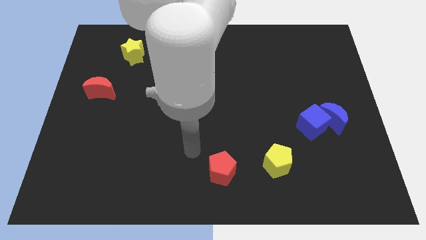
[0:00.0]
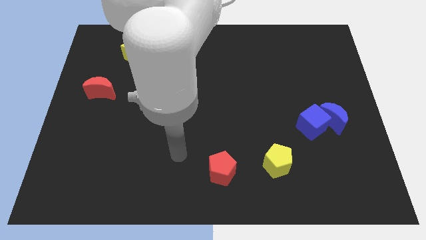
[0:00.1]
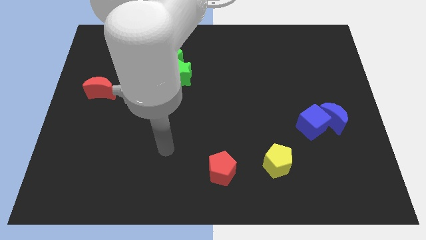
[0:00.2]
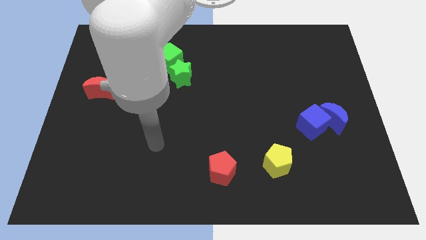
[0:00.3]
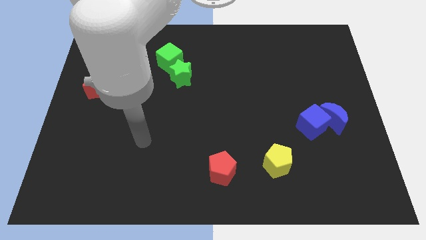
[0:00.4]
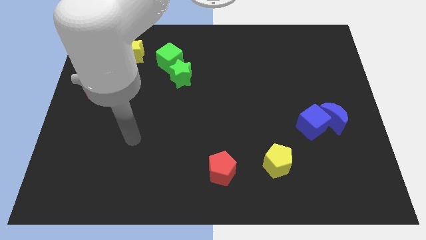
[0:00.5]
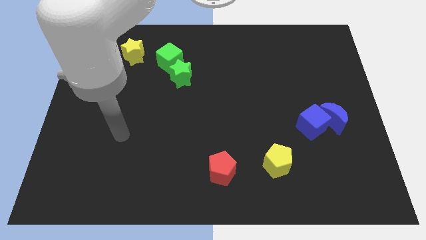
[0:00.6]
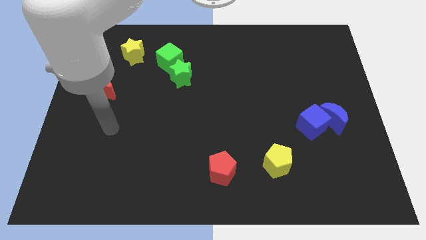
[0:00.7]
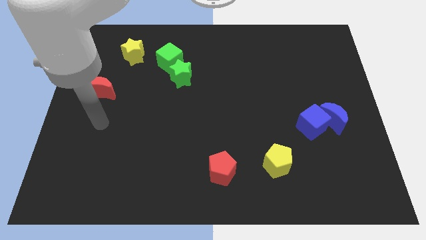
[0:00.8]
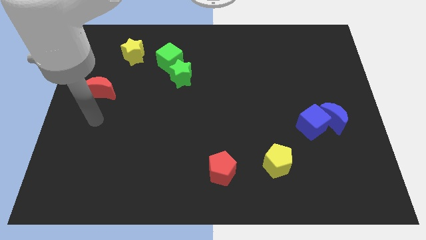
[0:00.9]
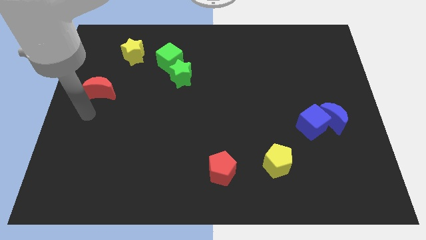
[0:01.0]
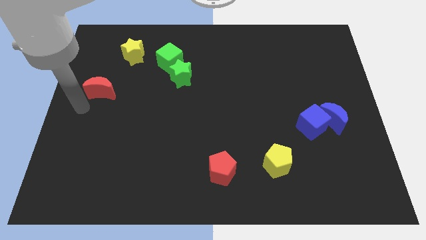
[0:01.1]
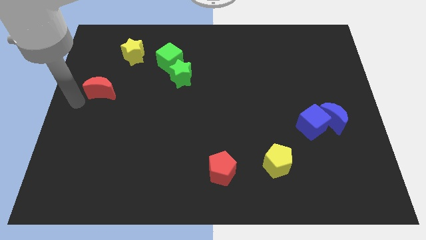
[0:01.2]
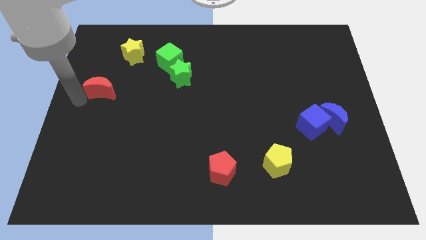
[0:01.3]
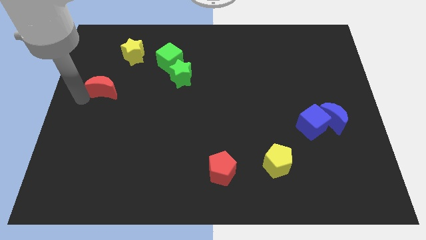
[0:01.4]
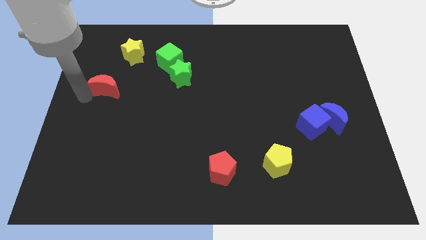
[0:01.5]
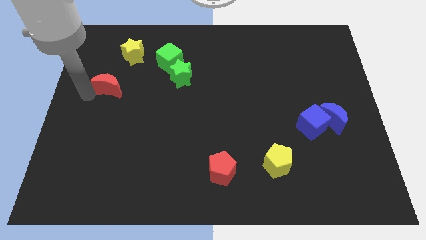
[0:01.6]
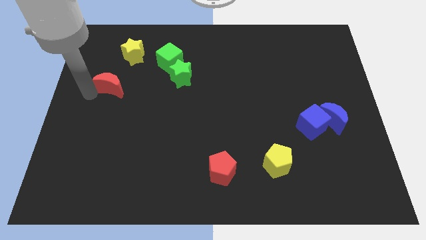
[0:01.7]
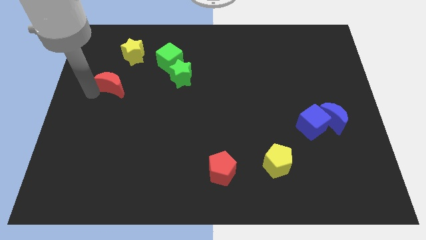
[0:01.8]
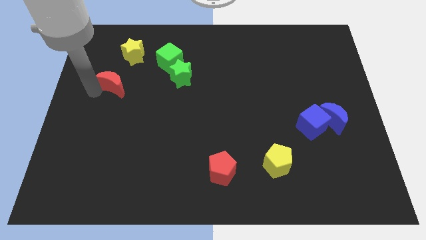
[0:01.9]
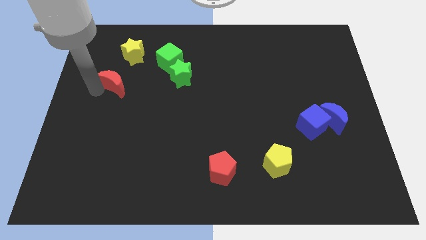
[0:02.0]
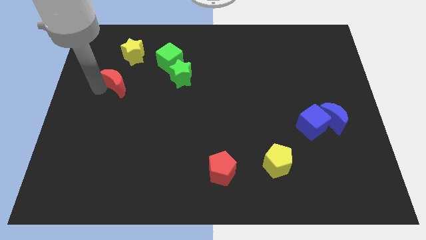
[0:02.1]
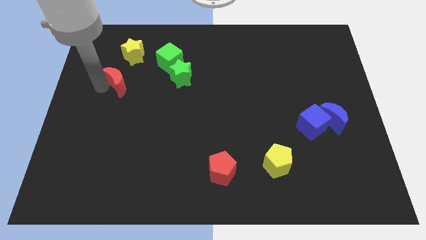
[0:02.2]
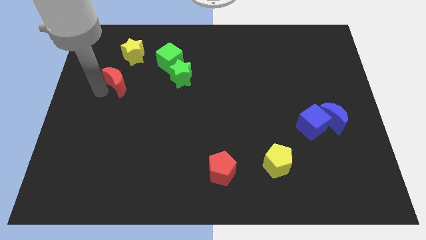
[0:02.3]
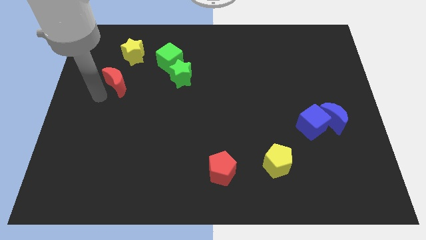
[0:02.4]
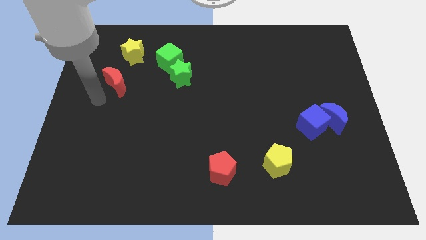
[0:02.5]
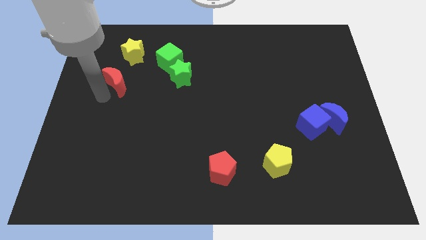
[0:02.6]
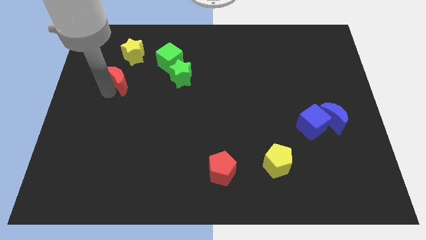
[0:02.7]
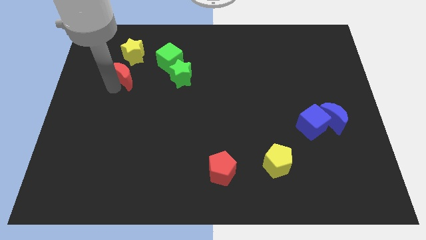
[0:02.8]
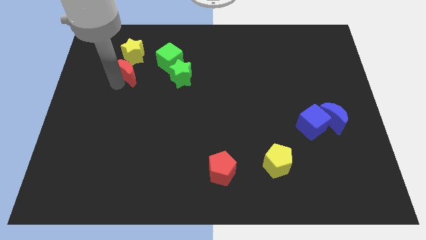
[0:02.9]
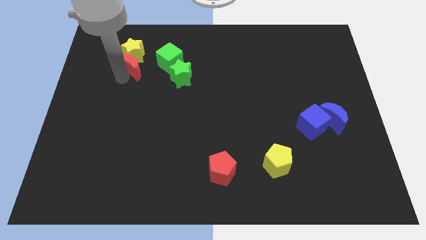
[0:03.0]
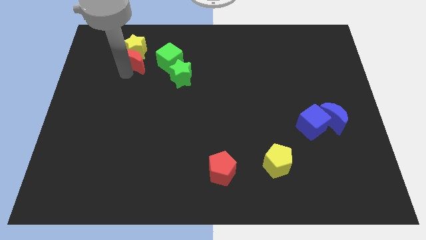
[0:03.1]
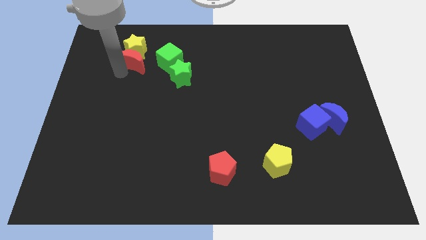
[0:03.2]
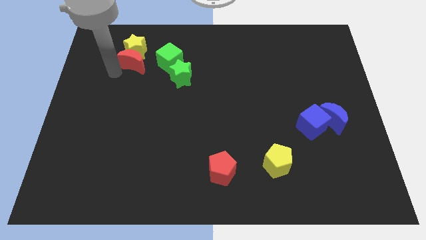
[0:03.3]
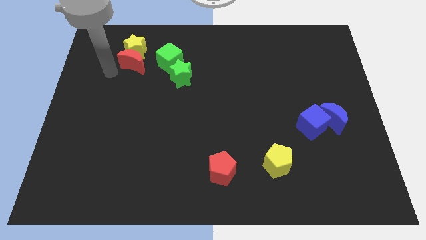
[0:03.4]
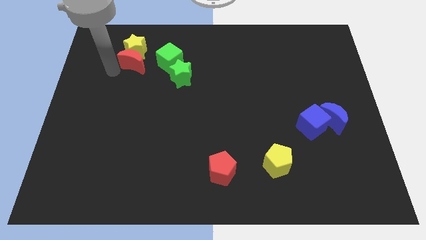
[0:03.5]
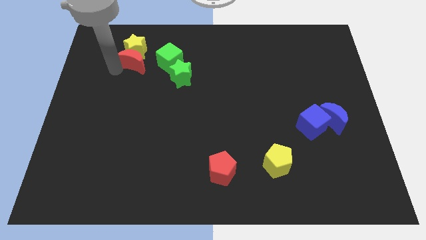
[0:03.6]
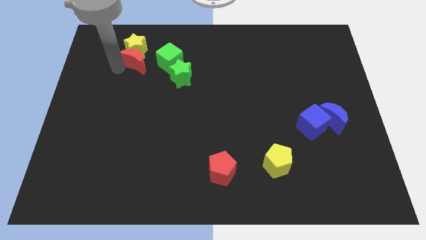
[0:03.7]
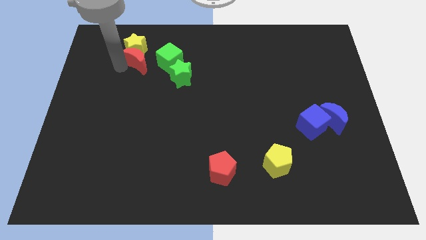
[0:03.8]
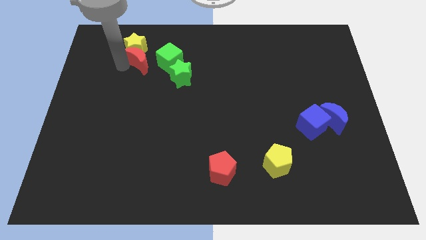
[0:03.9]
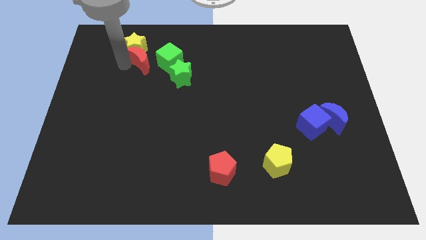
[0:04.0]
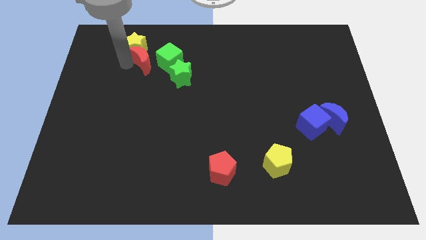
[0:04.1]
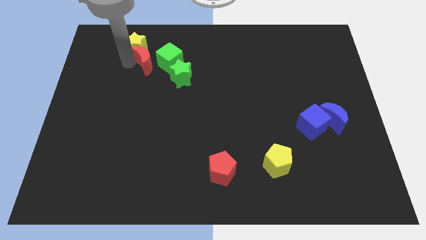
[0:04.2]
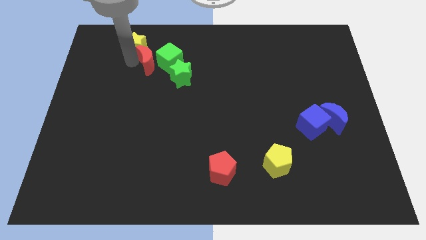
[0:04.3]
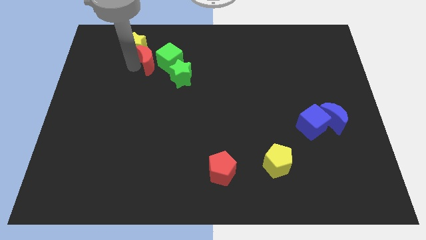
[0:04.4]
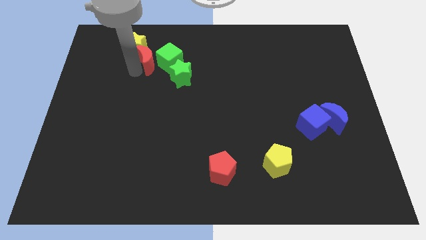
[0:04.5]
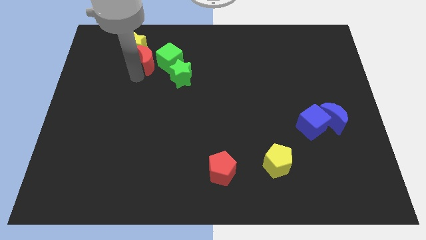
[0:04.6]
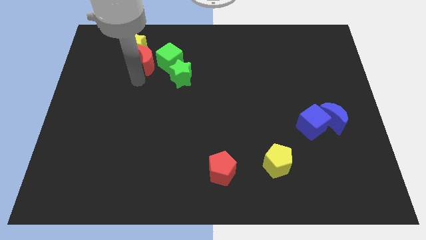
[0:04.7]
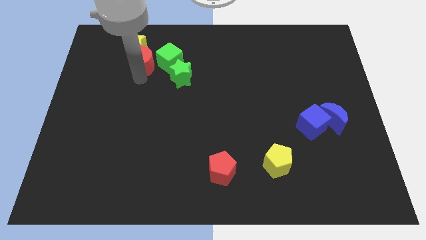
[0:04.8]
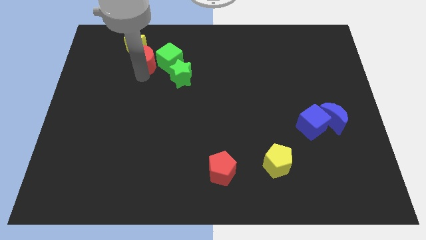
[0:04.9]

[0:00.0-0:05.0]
slide the red moon to the right side of the yellow star

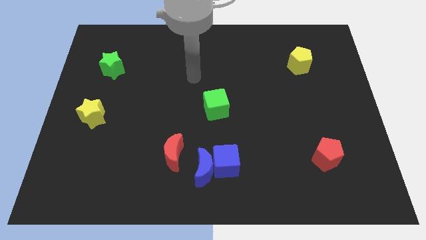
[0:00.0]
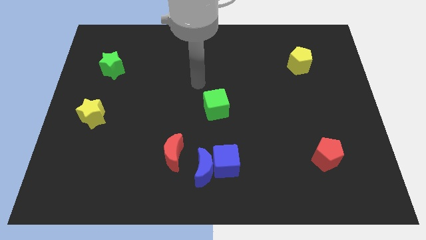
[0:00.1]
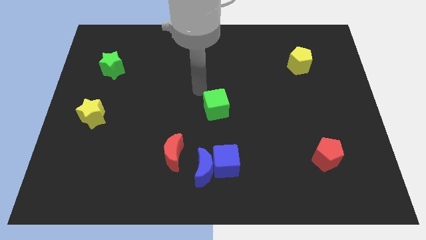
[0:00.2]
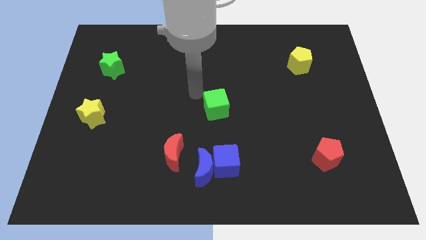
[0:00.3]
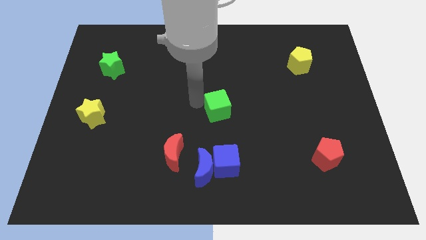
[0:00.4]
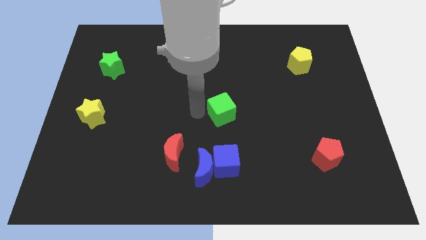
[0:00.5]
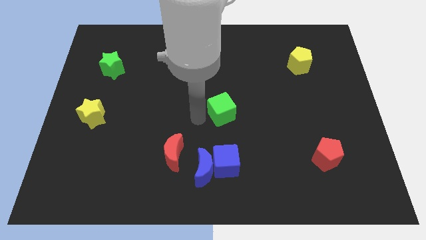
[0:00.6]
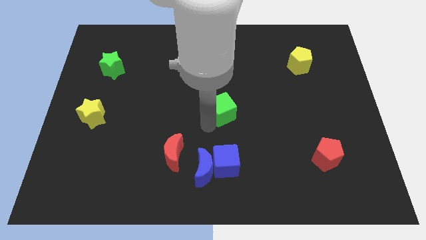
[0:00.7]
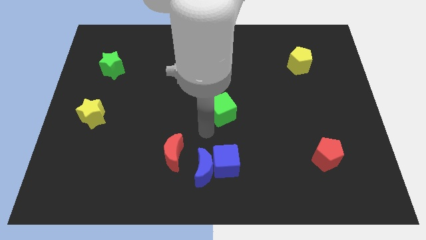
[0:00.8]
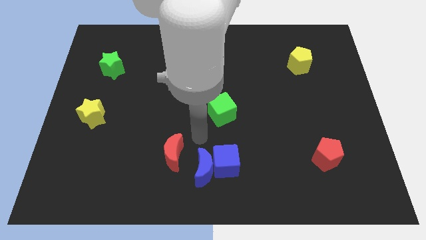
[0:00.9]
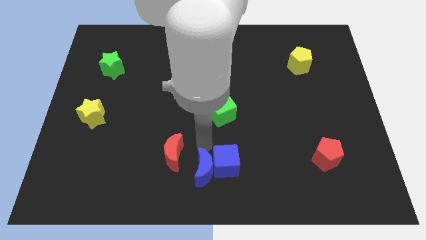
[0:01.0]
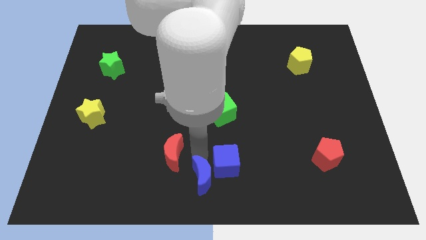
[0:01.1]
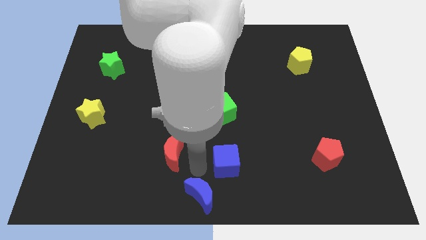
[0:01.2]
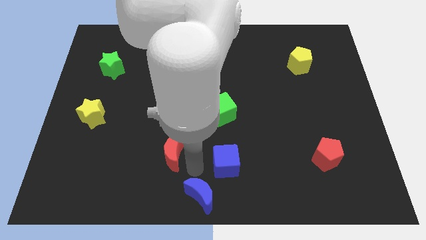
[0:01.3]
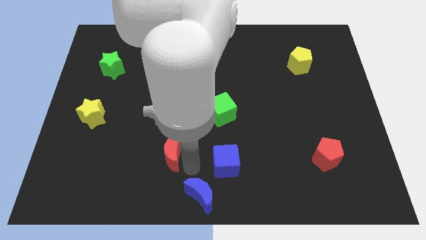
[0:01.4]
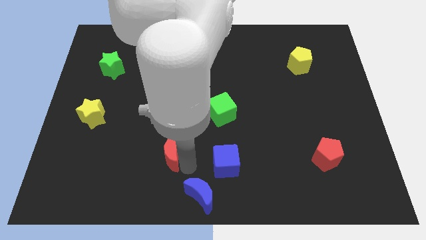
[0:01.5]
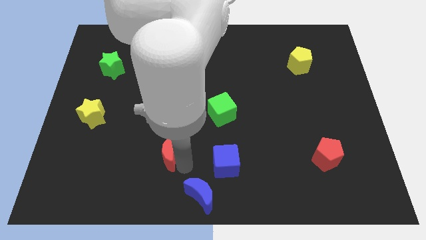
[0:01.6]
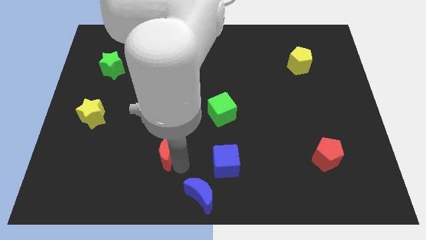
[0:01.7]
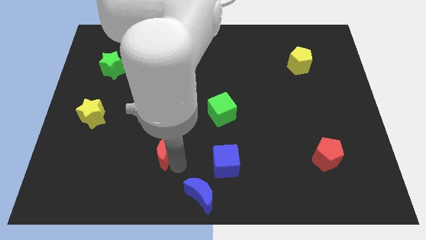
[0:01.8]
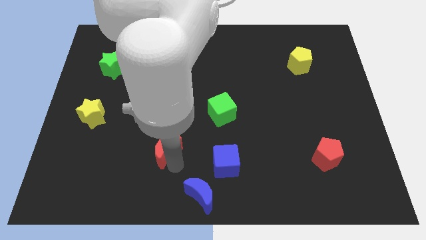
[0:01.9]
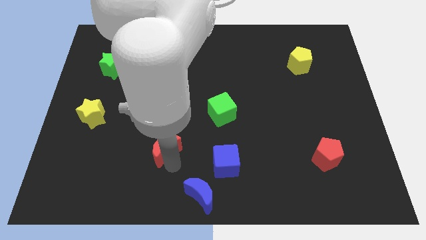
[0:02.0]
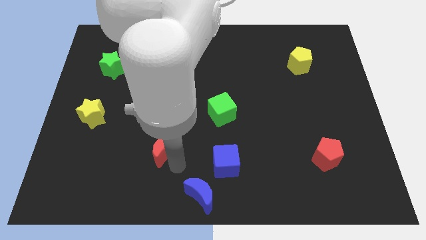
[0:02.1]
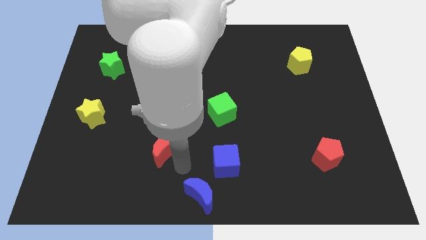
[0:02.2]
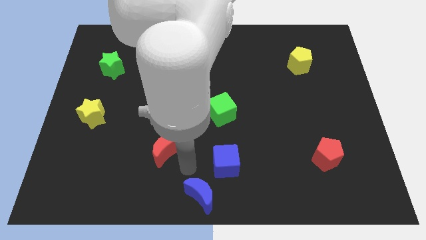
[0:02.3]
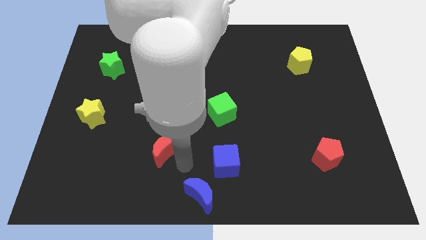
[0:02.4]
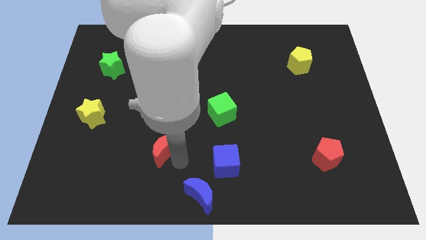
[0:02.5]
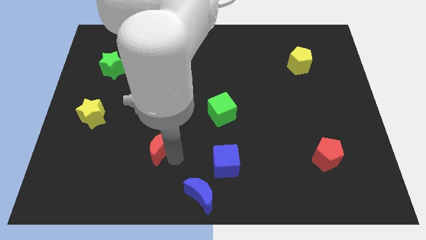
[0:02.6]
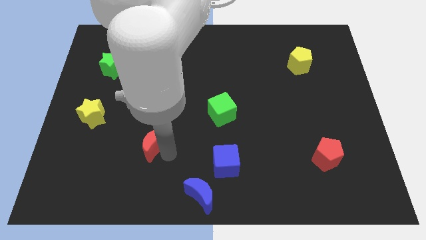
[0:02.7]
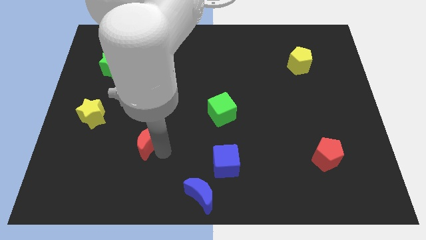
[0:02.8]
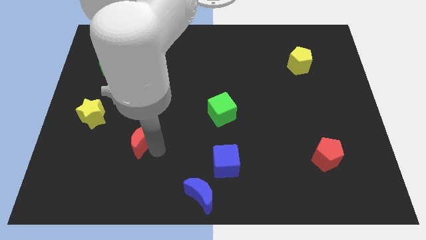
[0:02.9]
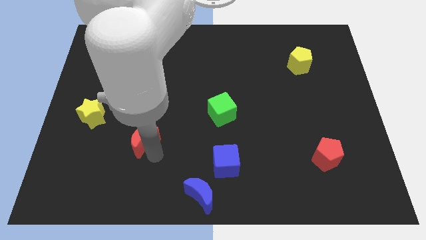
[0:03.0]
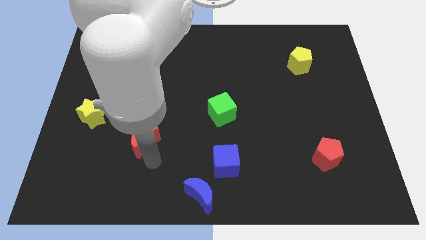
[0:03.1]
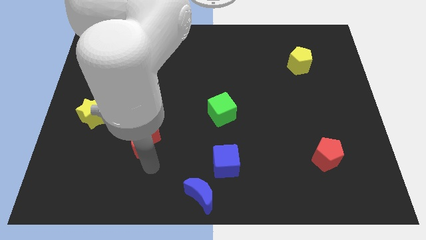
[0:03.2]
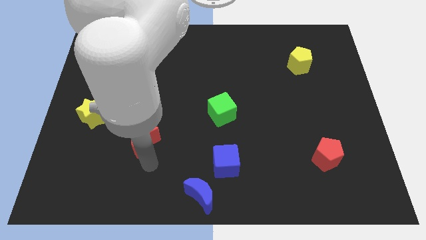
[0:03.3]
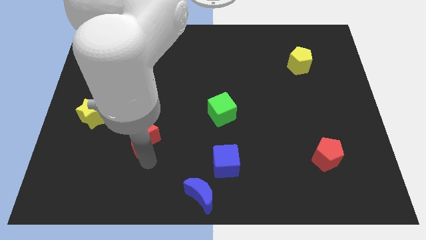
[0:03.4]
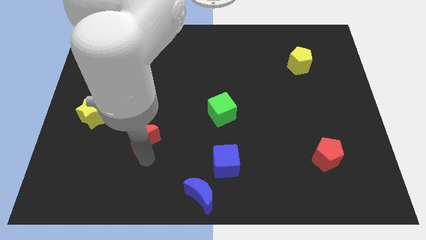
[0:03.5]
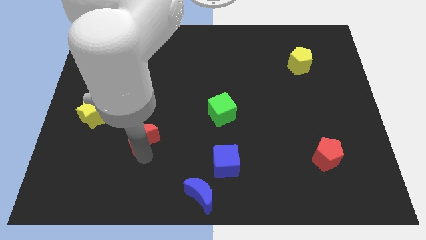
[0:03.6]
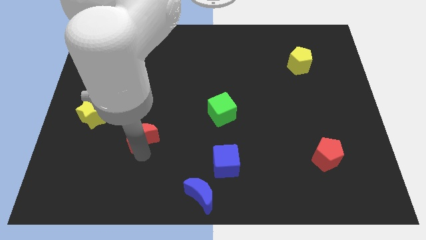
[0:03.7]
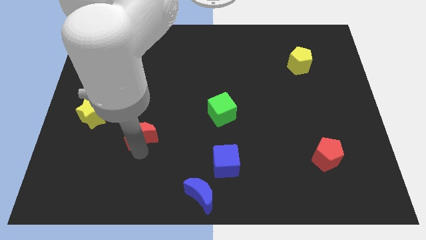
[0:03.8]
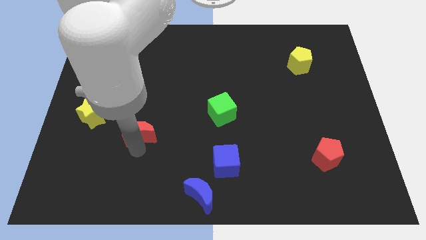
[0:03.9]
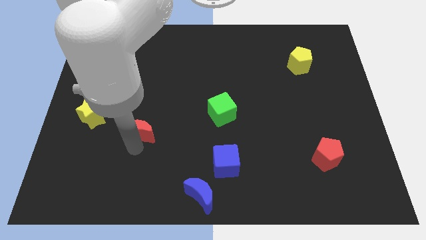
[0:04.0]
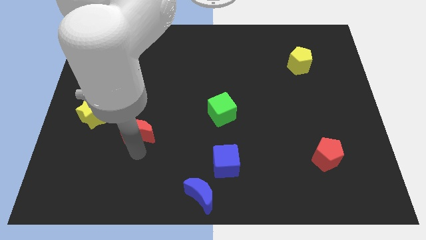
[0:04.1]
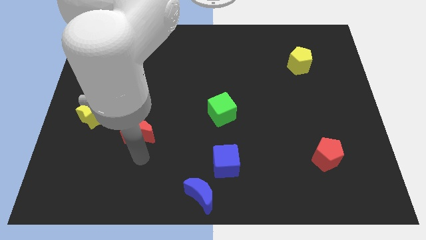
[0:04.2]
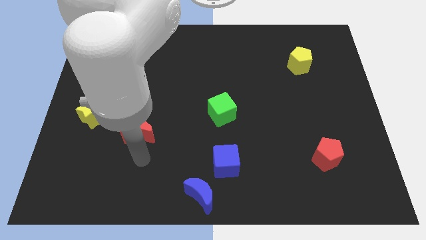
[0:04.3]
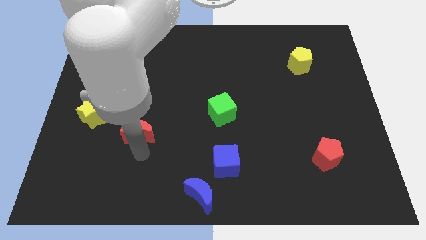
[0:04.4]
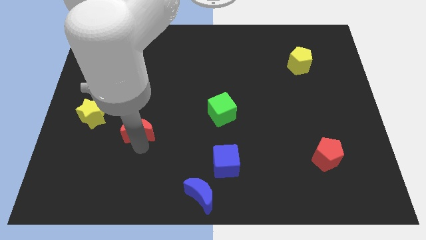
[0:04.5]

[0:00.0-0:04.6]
push the red moon just right of the yellow star
